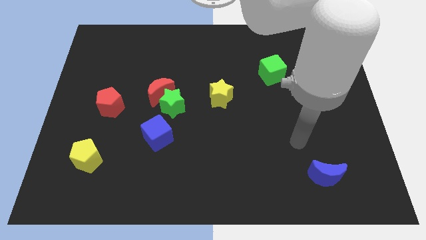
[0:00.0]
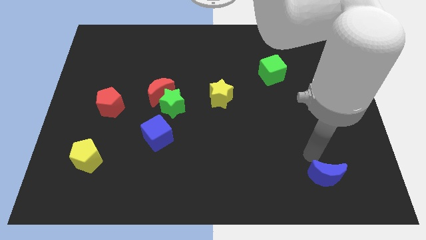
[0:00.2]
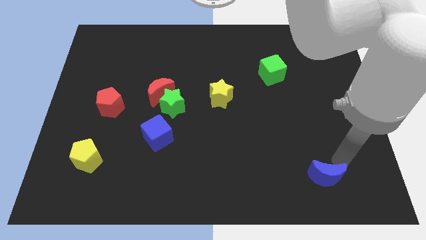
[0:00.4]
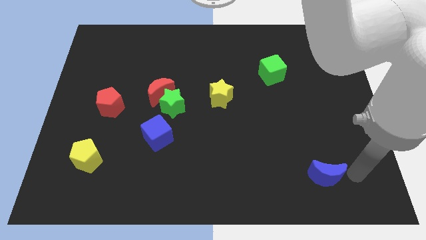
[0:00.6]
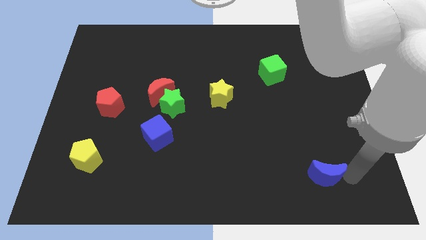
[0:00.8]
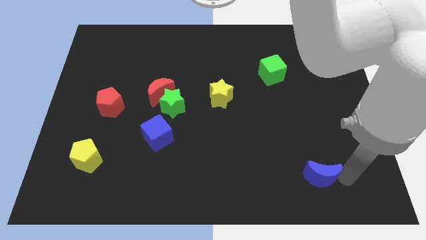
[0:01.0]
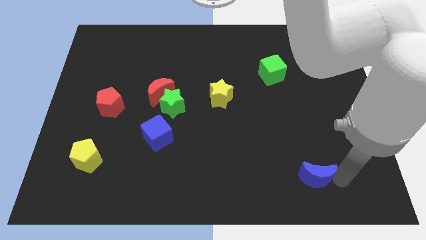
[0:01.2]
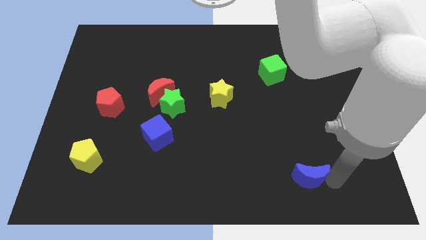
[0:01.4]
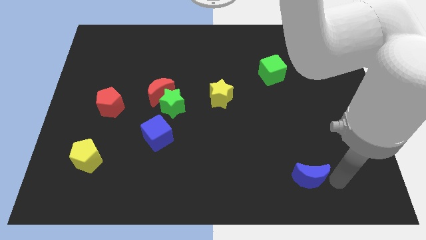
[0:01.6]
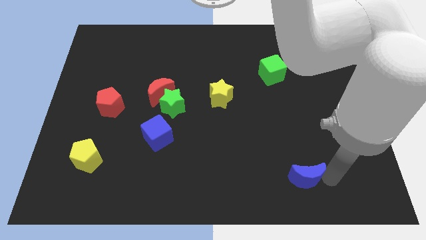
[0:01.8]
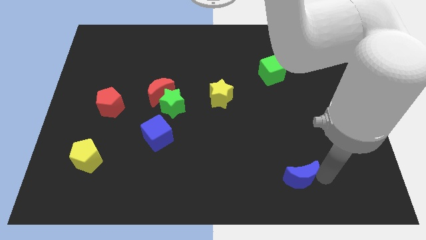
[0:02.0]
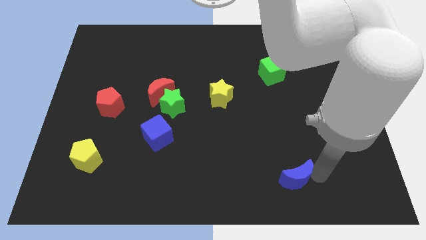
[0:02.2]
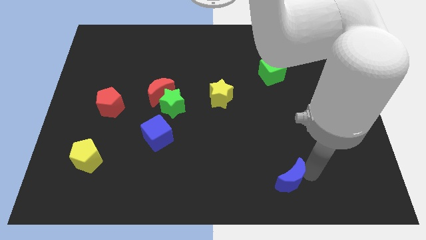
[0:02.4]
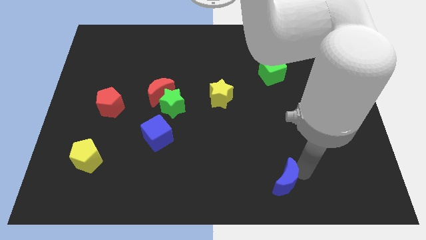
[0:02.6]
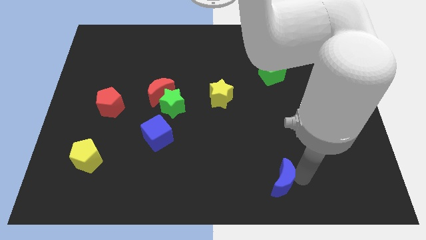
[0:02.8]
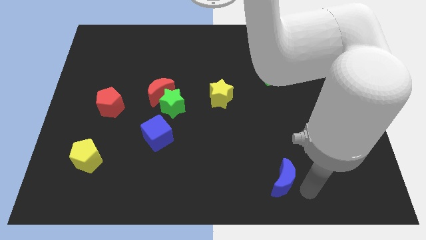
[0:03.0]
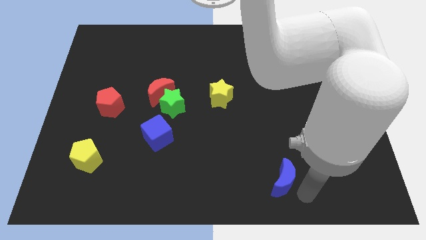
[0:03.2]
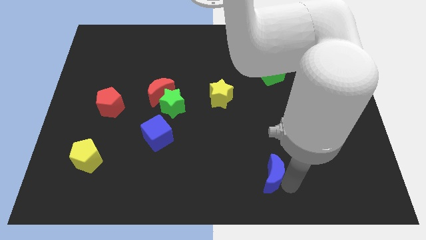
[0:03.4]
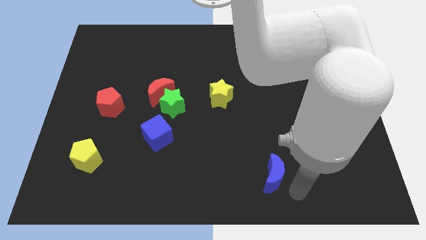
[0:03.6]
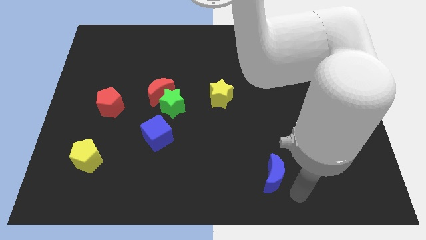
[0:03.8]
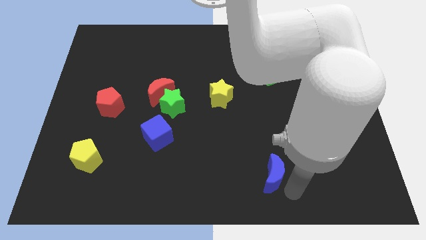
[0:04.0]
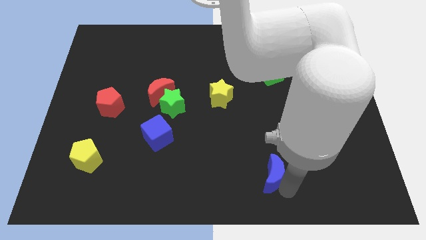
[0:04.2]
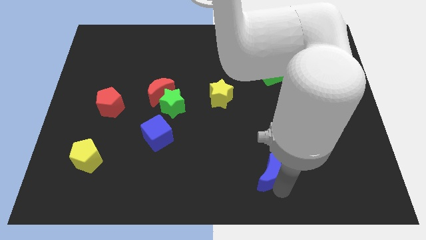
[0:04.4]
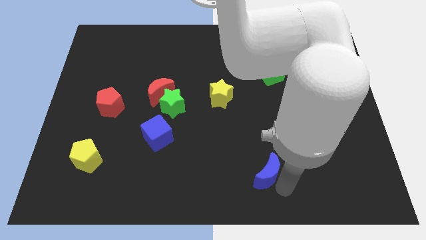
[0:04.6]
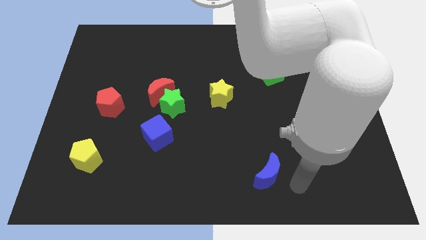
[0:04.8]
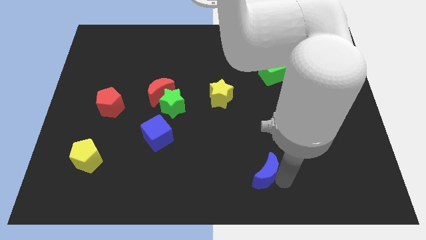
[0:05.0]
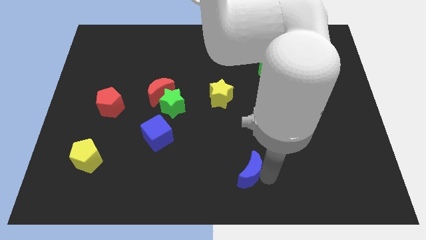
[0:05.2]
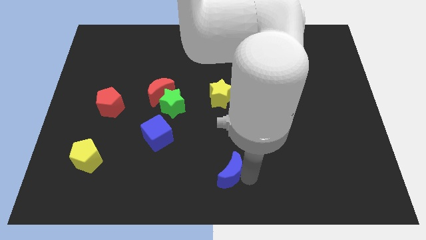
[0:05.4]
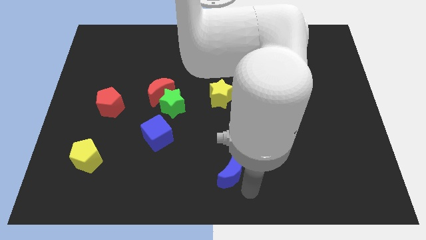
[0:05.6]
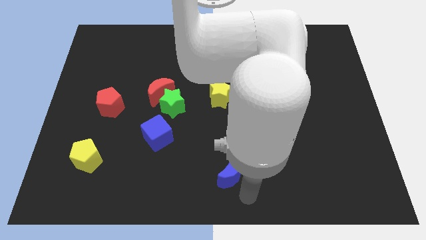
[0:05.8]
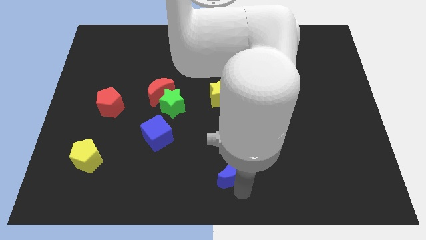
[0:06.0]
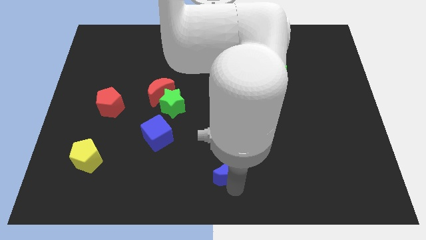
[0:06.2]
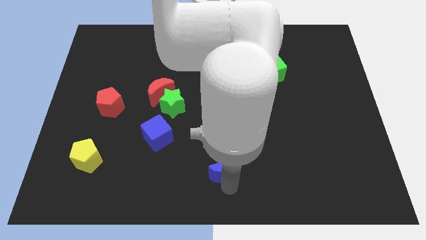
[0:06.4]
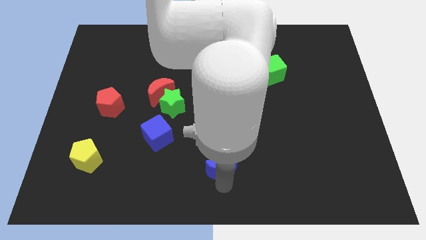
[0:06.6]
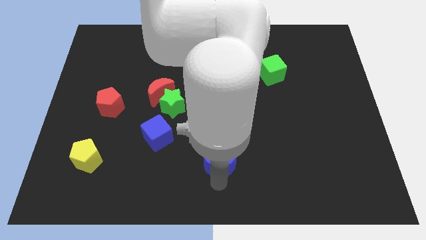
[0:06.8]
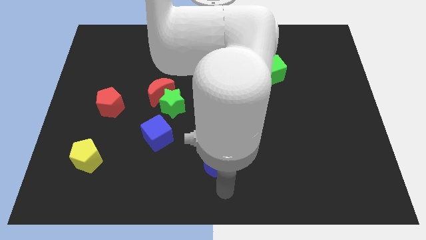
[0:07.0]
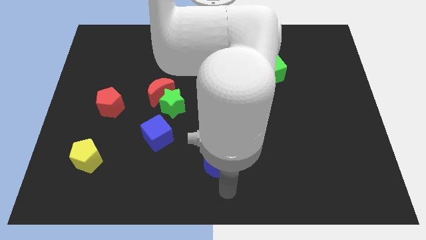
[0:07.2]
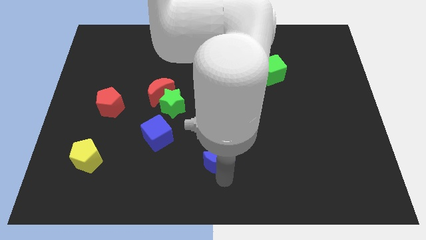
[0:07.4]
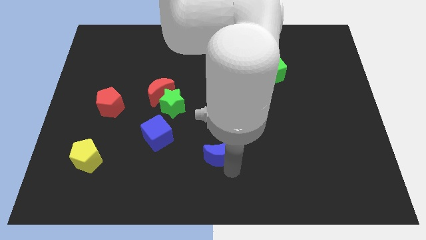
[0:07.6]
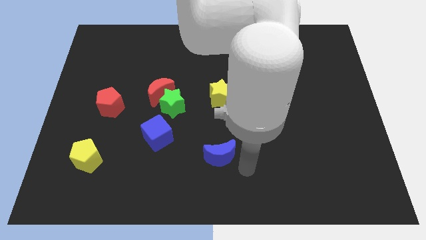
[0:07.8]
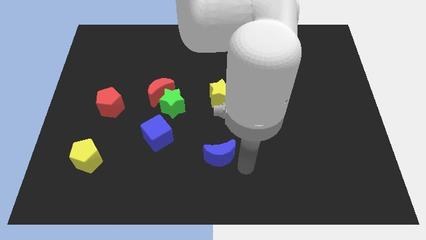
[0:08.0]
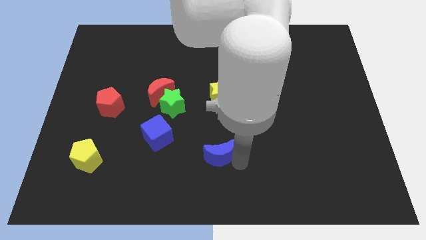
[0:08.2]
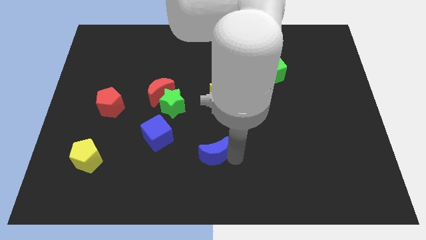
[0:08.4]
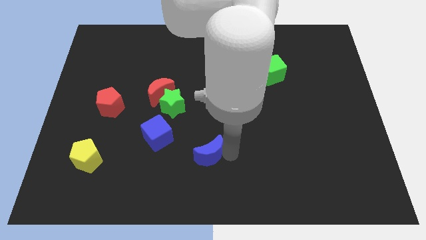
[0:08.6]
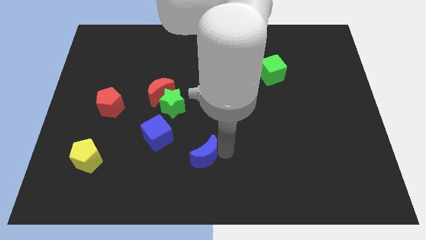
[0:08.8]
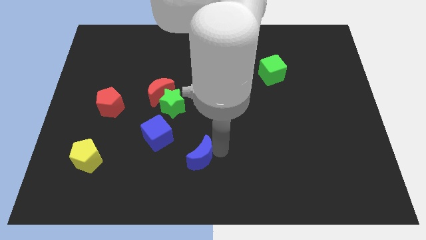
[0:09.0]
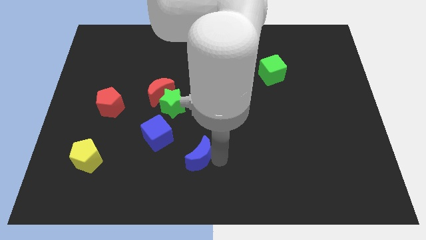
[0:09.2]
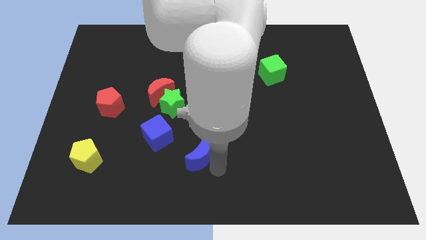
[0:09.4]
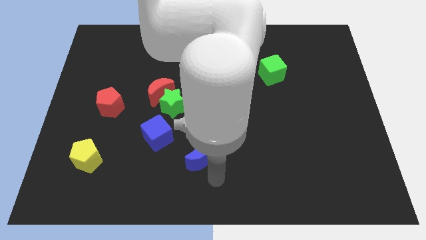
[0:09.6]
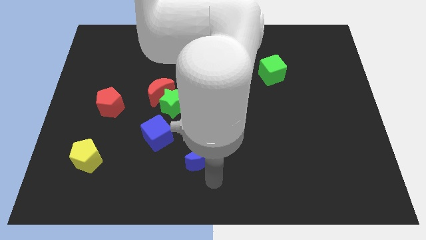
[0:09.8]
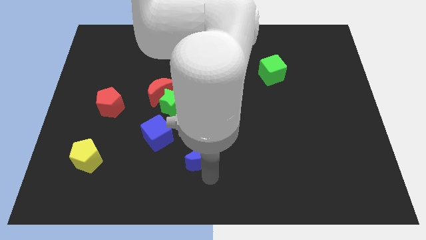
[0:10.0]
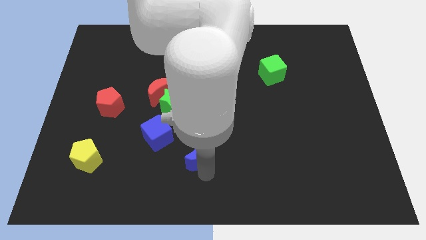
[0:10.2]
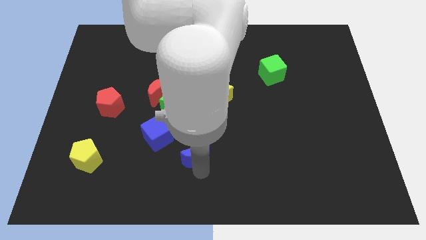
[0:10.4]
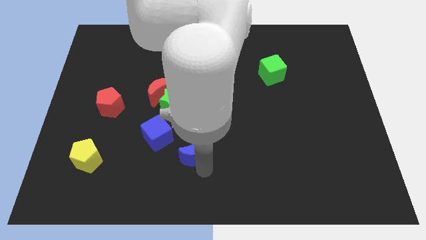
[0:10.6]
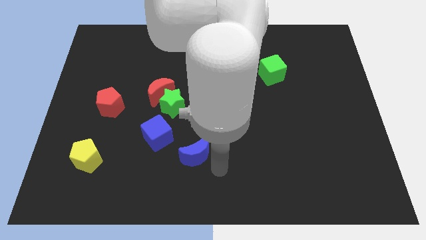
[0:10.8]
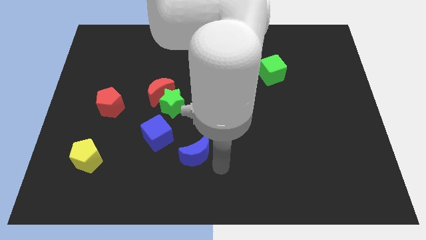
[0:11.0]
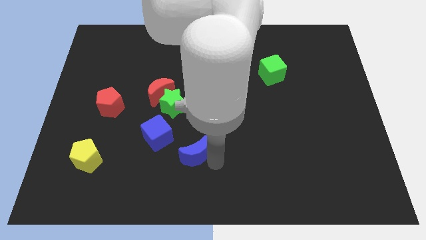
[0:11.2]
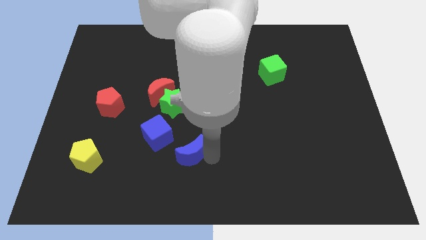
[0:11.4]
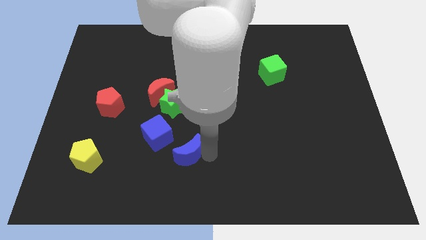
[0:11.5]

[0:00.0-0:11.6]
slide the blue moon below the green star

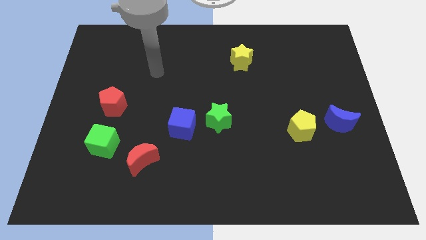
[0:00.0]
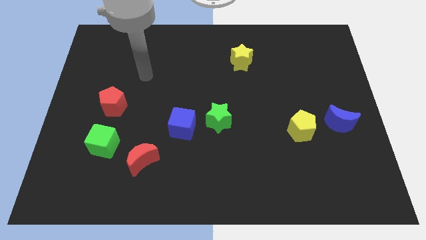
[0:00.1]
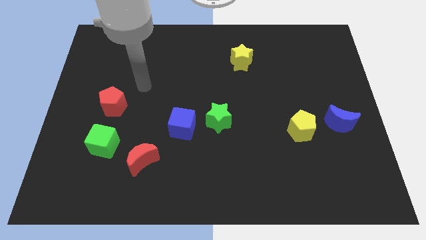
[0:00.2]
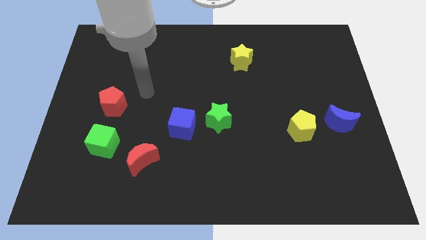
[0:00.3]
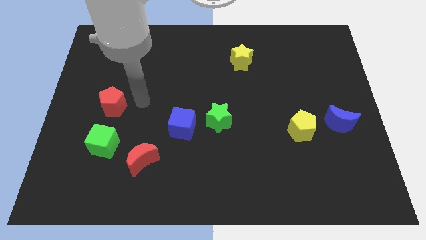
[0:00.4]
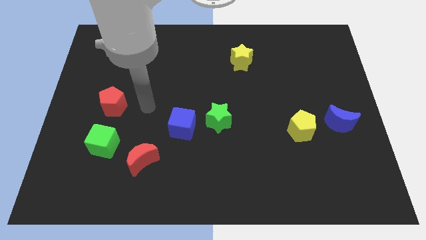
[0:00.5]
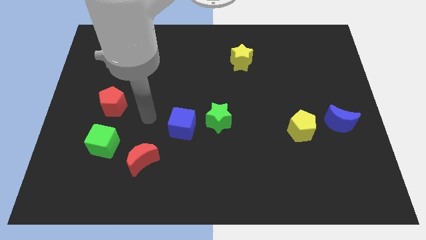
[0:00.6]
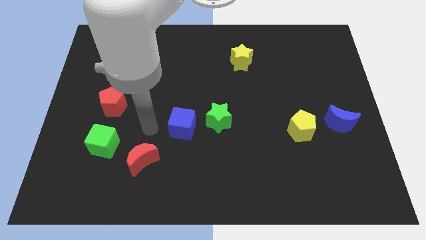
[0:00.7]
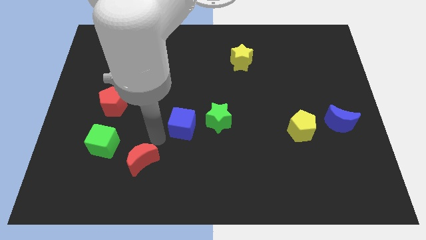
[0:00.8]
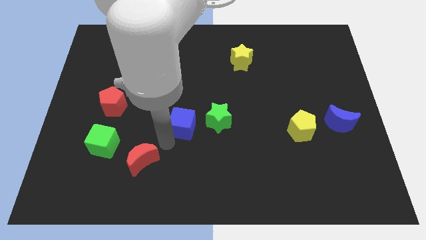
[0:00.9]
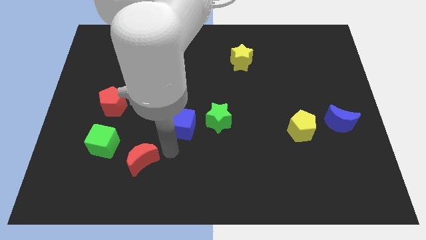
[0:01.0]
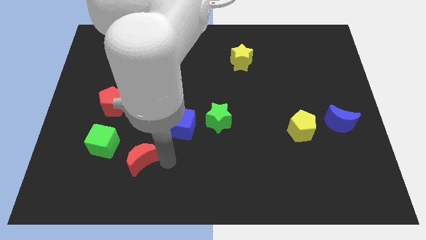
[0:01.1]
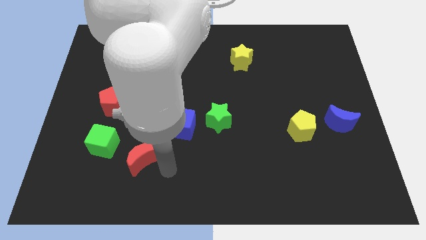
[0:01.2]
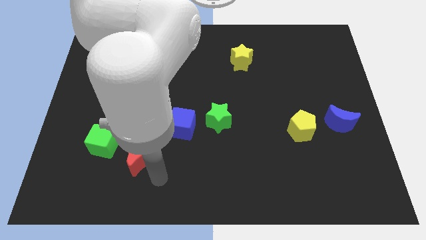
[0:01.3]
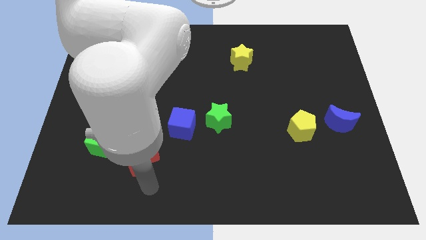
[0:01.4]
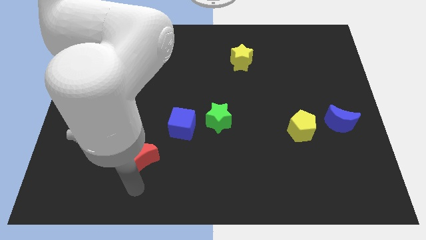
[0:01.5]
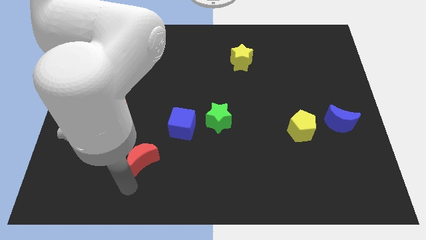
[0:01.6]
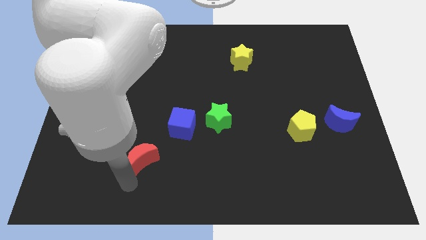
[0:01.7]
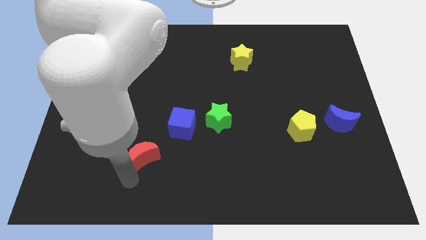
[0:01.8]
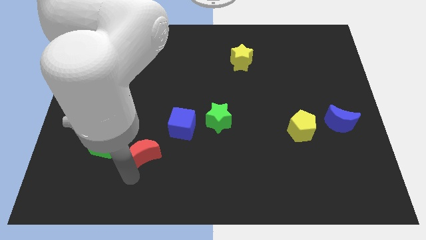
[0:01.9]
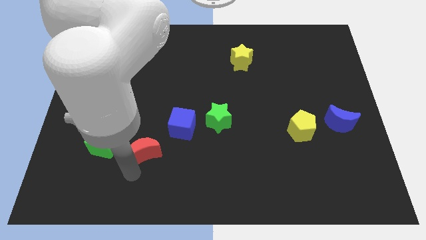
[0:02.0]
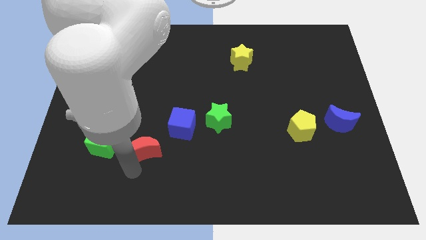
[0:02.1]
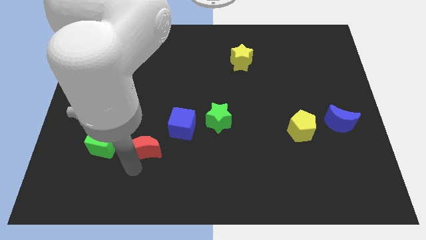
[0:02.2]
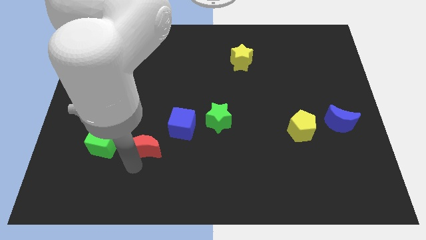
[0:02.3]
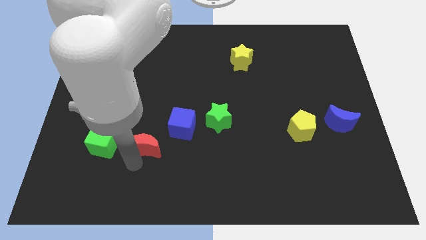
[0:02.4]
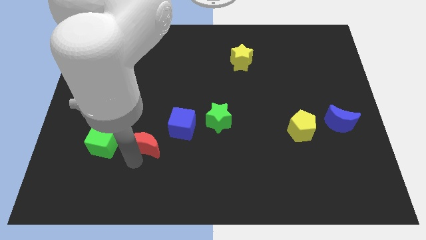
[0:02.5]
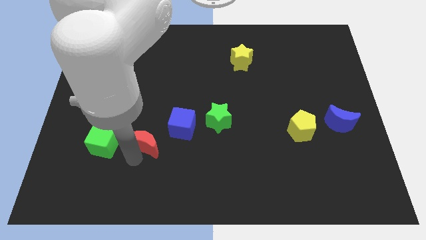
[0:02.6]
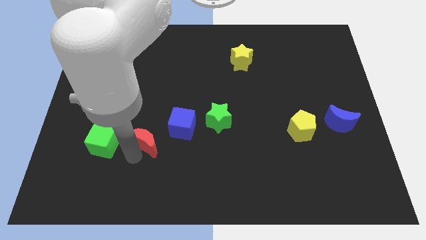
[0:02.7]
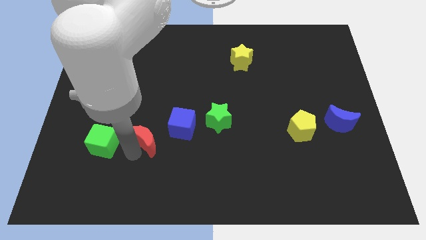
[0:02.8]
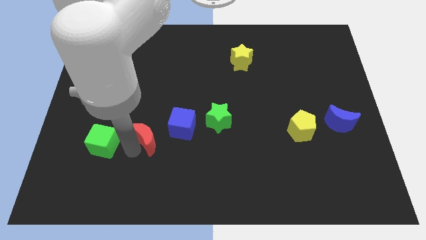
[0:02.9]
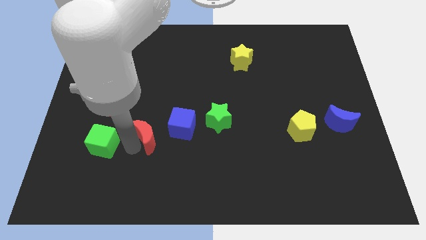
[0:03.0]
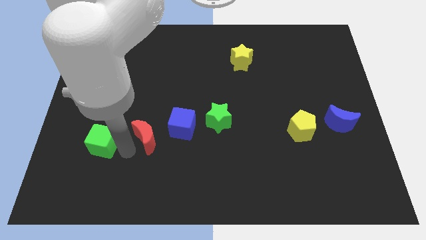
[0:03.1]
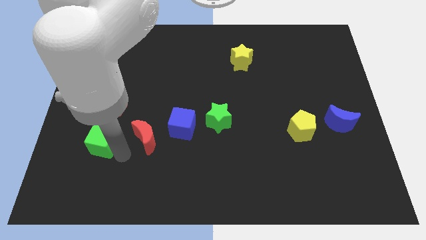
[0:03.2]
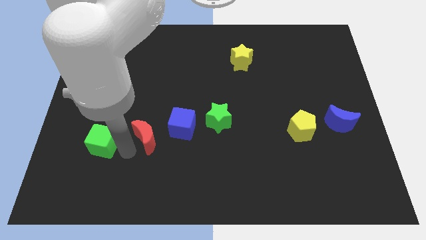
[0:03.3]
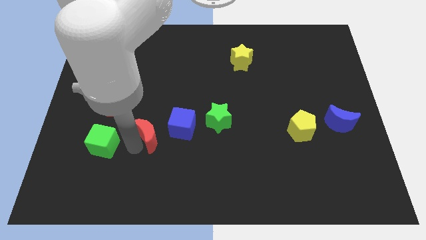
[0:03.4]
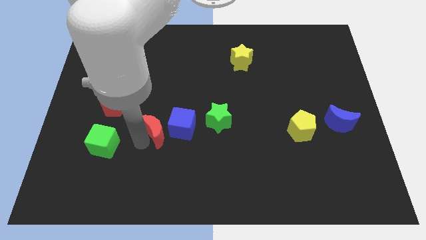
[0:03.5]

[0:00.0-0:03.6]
slide the red moon just left of the green star
